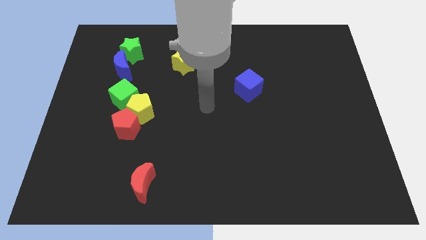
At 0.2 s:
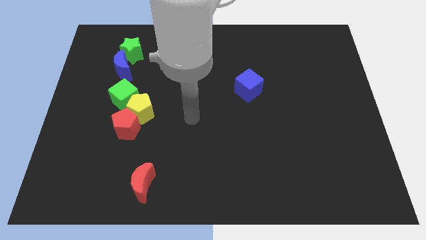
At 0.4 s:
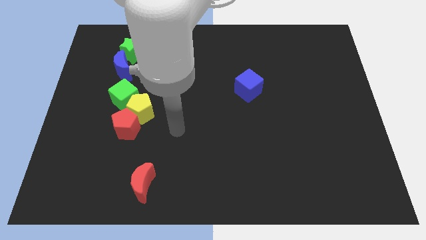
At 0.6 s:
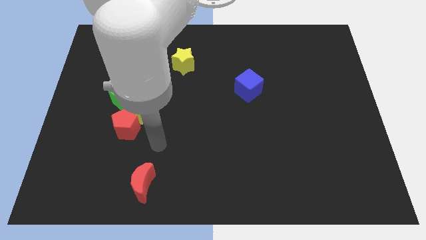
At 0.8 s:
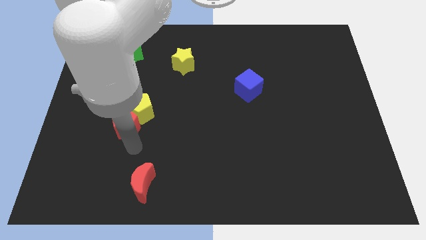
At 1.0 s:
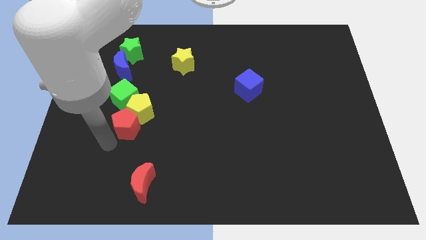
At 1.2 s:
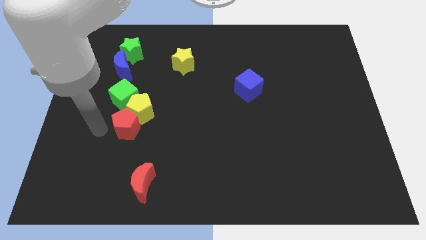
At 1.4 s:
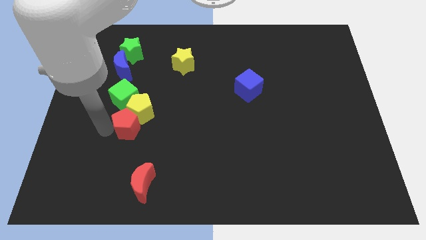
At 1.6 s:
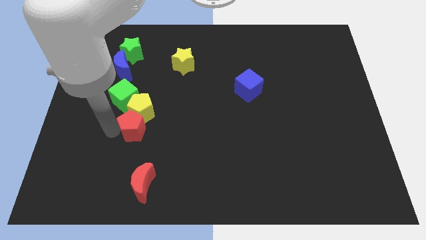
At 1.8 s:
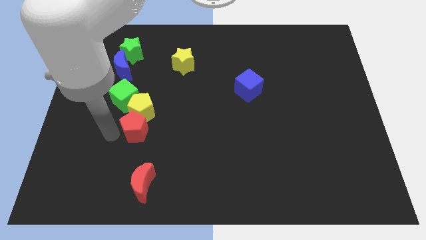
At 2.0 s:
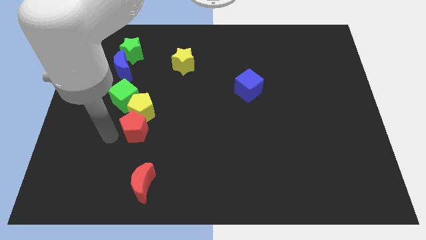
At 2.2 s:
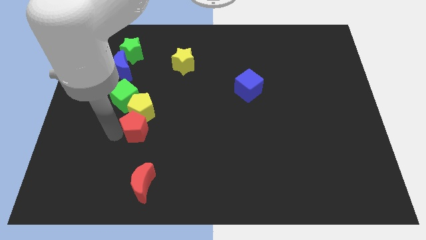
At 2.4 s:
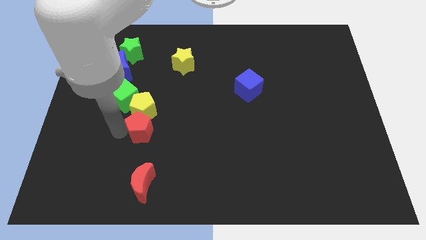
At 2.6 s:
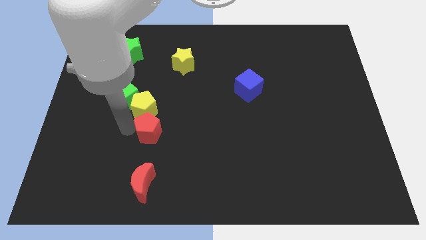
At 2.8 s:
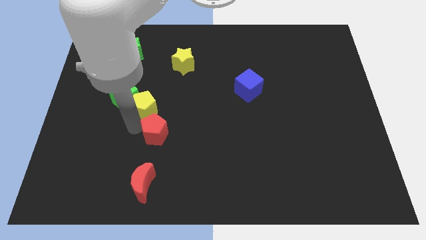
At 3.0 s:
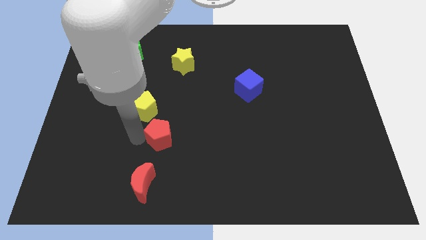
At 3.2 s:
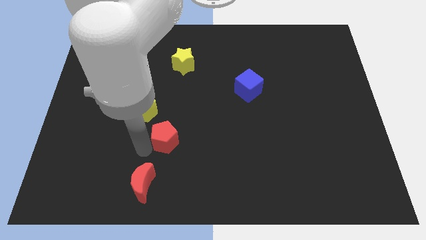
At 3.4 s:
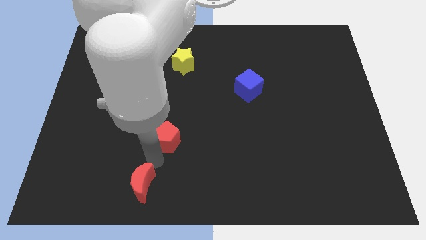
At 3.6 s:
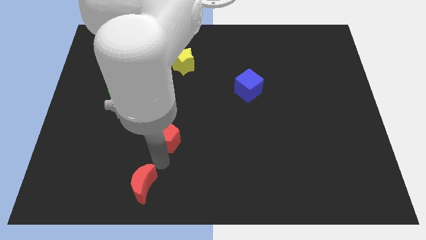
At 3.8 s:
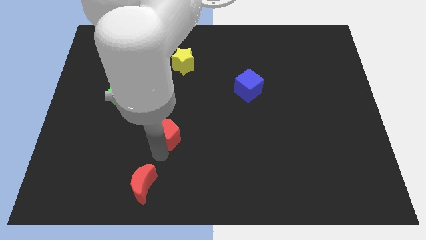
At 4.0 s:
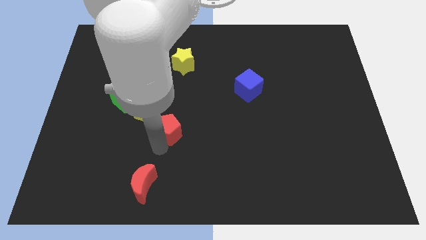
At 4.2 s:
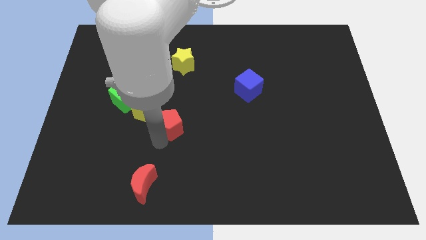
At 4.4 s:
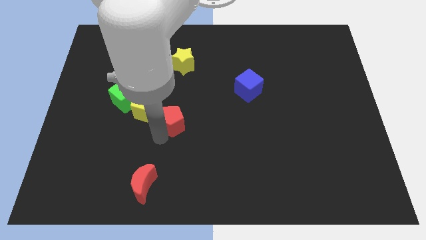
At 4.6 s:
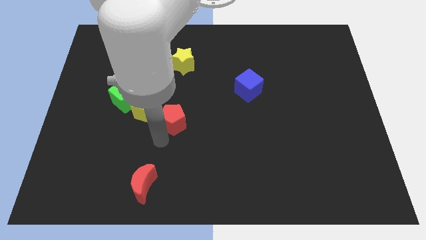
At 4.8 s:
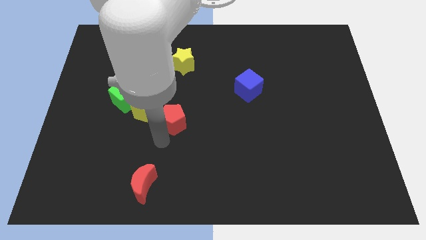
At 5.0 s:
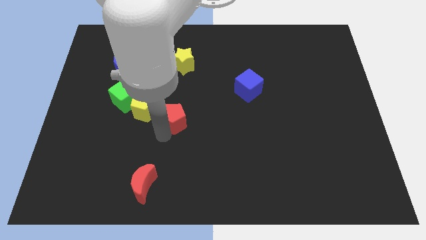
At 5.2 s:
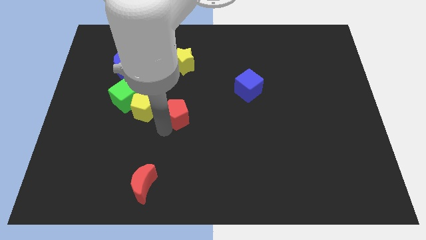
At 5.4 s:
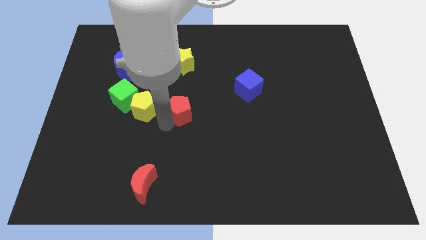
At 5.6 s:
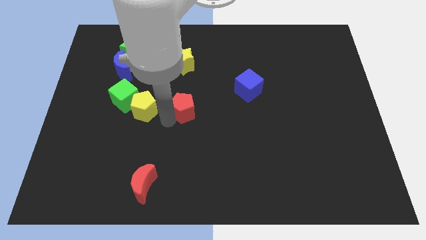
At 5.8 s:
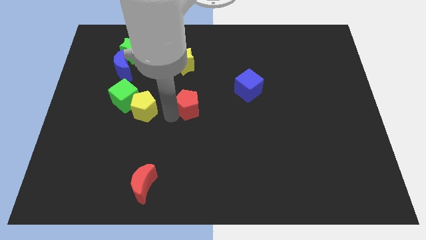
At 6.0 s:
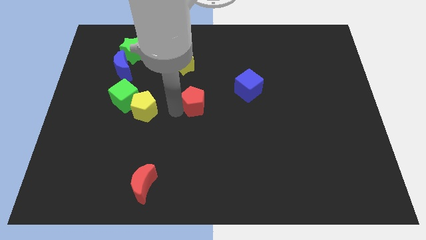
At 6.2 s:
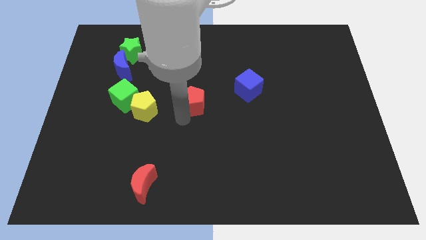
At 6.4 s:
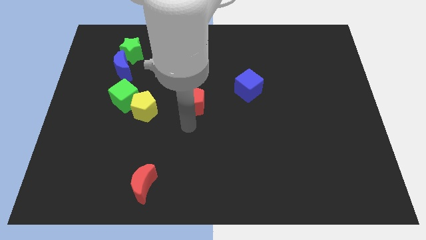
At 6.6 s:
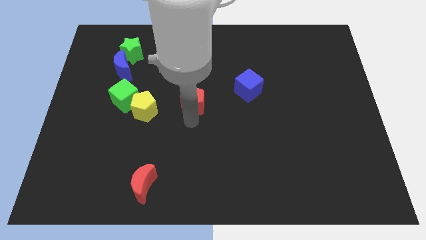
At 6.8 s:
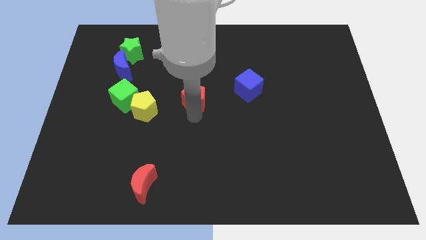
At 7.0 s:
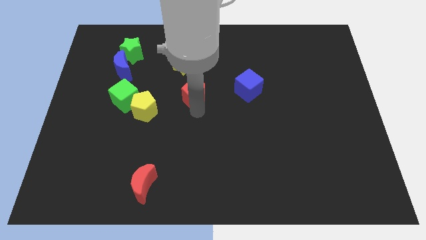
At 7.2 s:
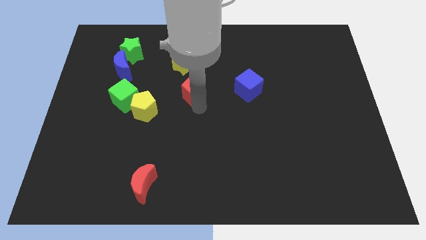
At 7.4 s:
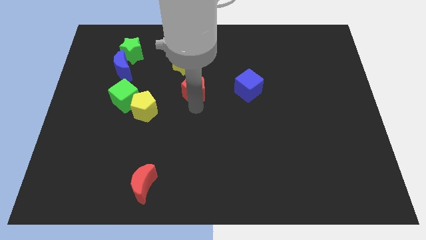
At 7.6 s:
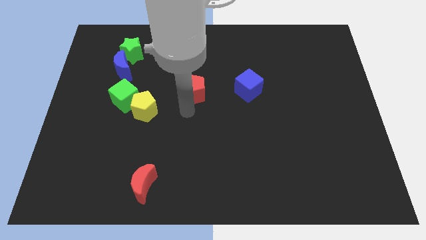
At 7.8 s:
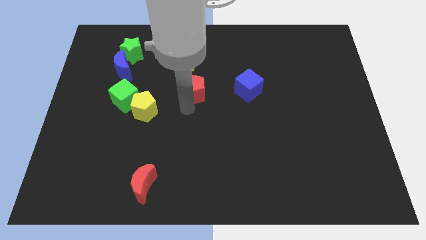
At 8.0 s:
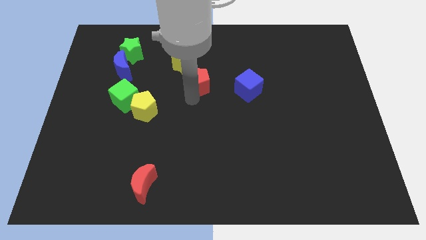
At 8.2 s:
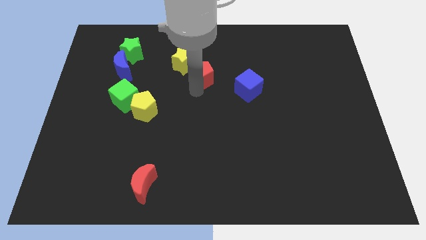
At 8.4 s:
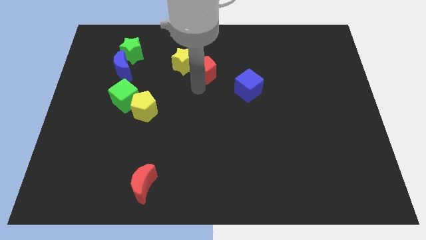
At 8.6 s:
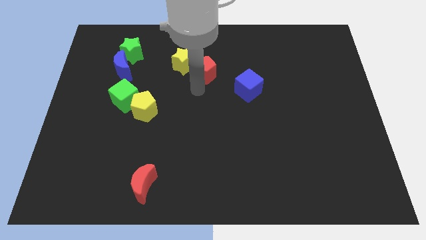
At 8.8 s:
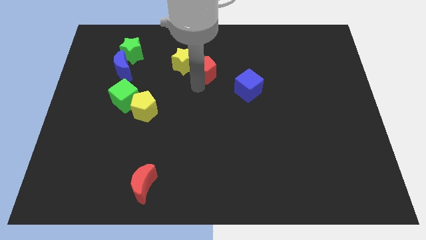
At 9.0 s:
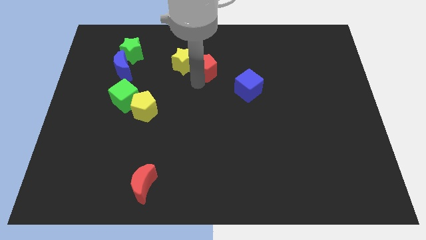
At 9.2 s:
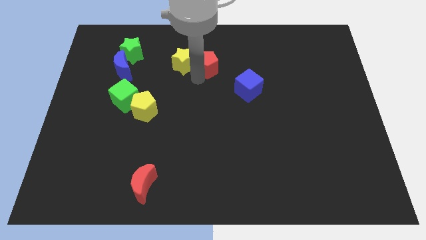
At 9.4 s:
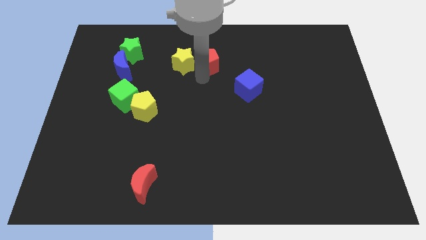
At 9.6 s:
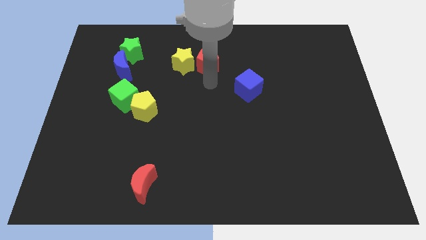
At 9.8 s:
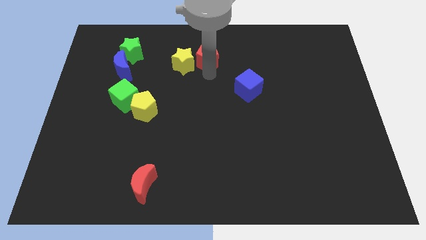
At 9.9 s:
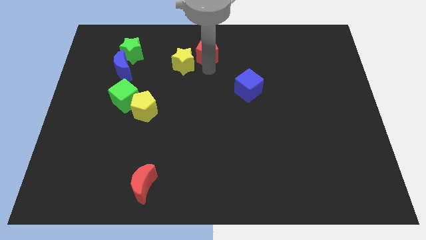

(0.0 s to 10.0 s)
slide the red pentagon to the top side

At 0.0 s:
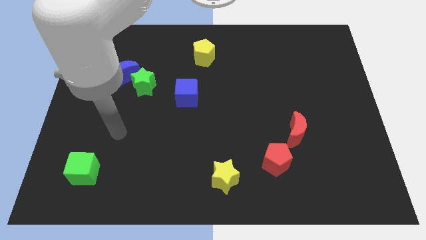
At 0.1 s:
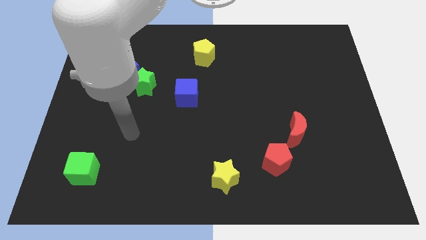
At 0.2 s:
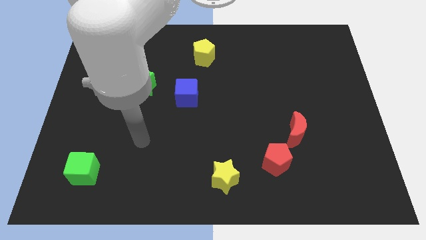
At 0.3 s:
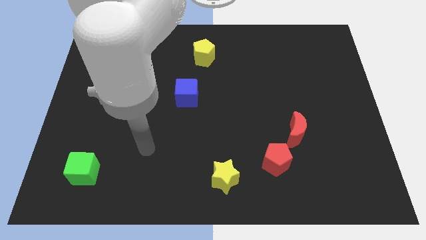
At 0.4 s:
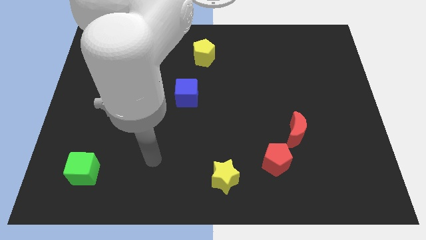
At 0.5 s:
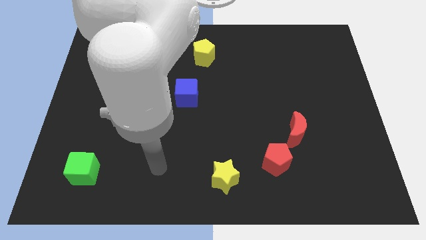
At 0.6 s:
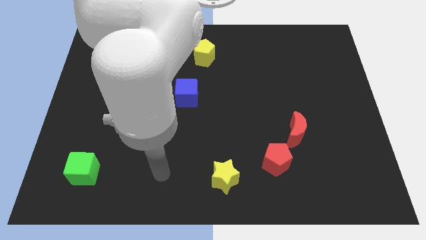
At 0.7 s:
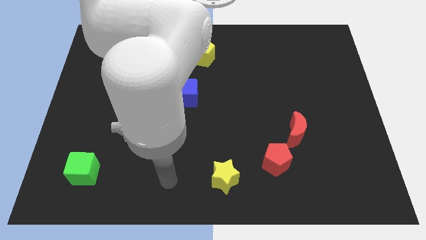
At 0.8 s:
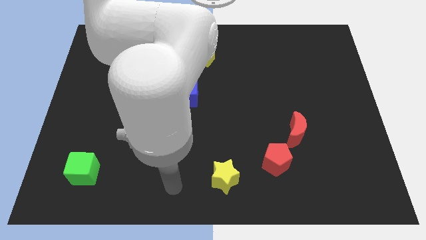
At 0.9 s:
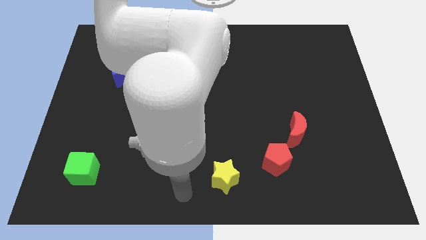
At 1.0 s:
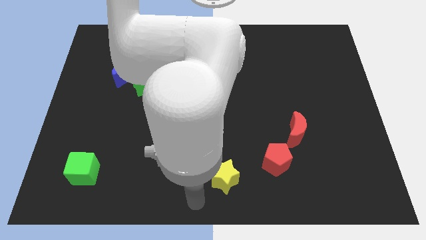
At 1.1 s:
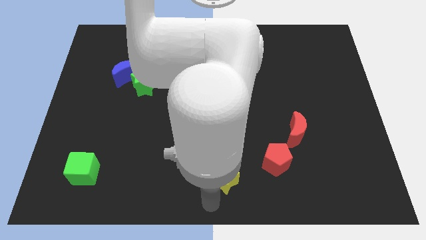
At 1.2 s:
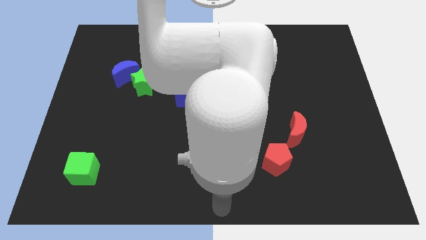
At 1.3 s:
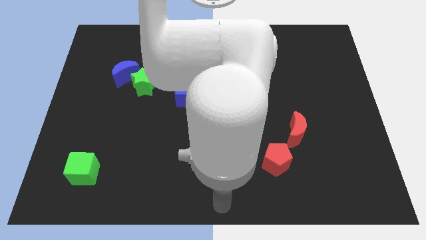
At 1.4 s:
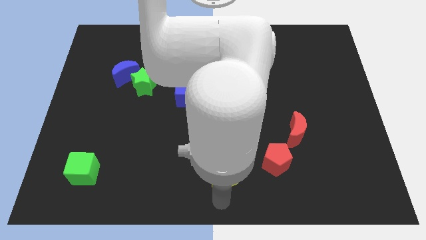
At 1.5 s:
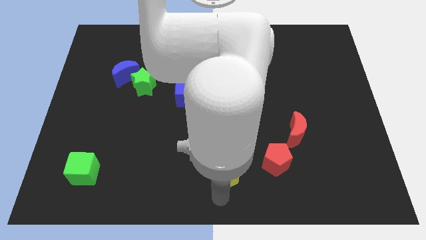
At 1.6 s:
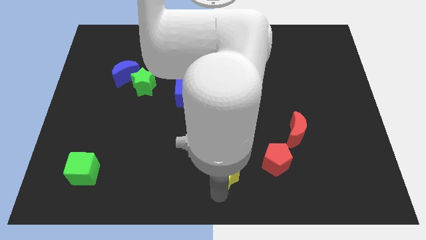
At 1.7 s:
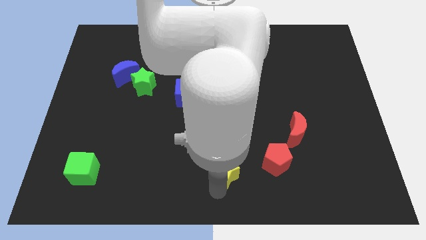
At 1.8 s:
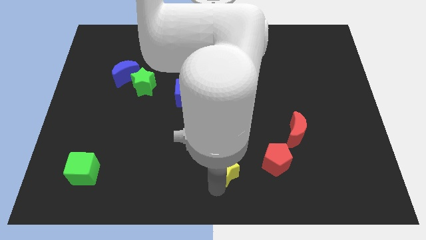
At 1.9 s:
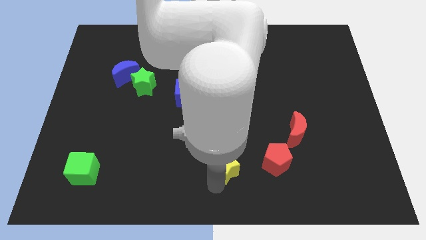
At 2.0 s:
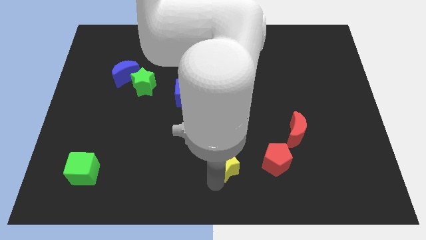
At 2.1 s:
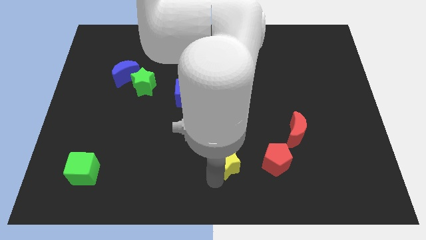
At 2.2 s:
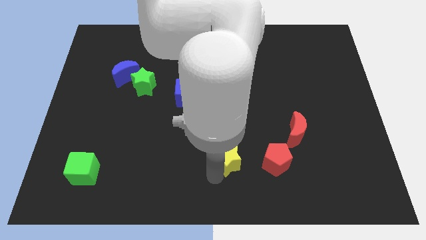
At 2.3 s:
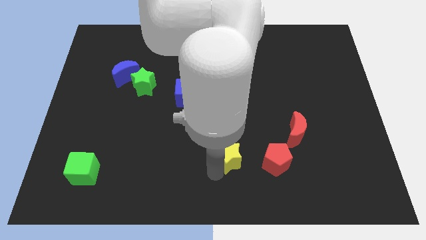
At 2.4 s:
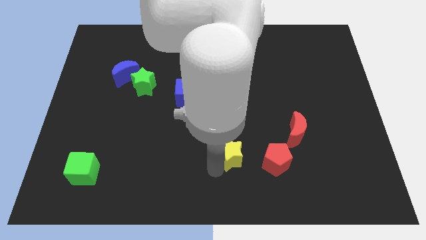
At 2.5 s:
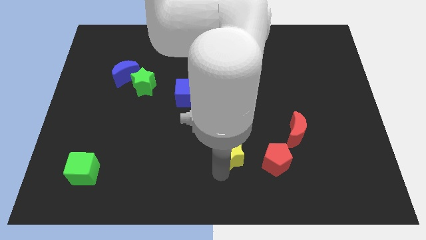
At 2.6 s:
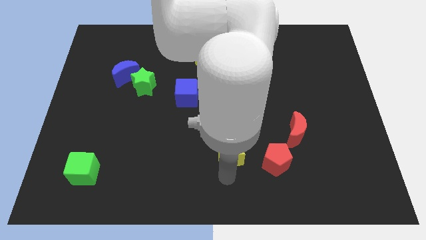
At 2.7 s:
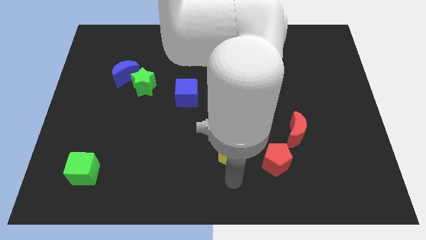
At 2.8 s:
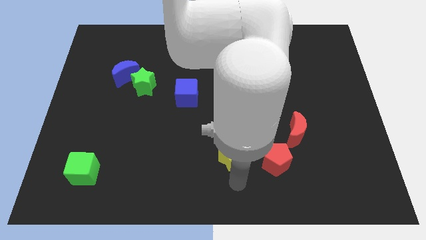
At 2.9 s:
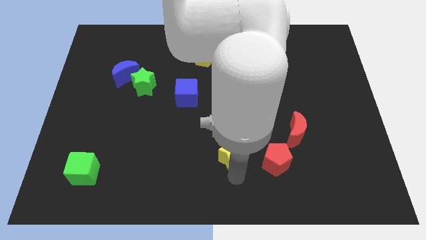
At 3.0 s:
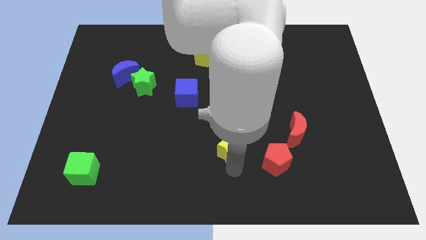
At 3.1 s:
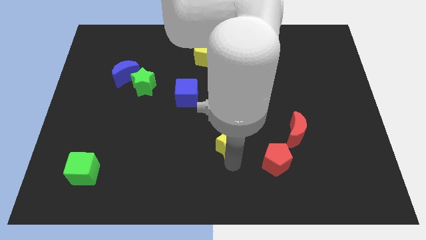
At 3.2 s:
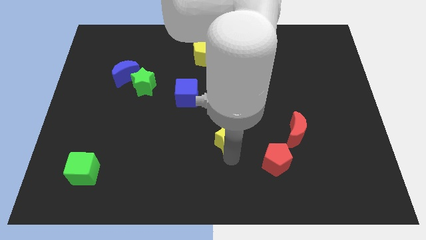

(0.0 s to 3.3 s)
move the yellow star to the center of the board
